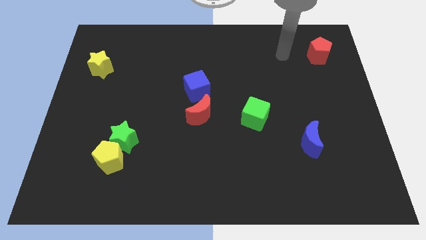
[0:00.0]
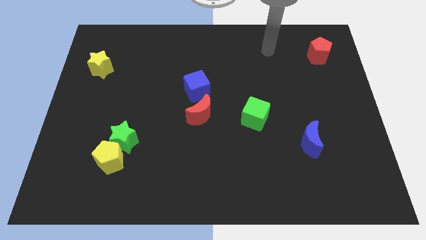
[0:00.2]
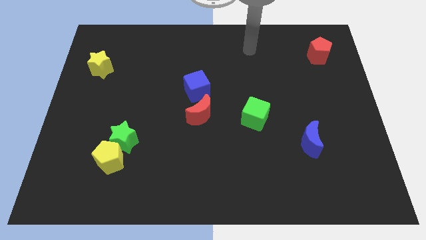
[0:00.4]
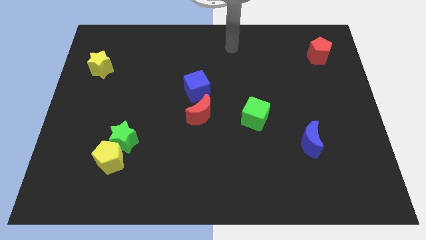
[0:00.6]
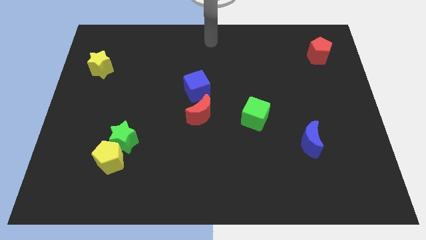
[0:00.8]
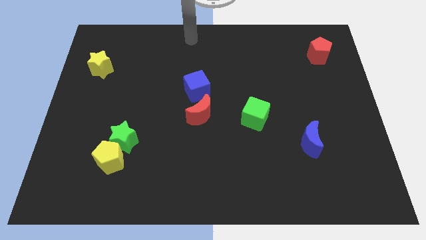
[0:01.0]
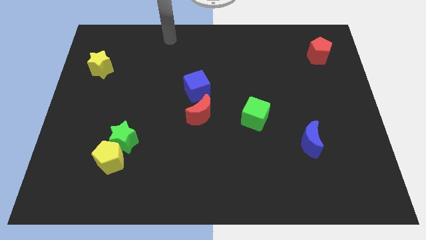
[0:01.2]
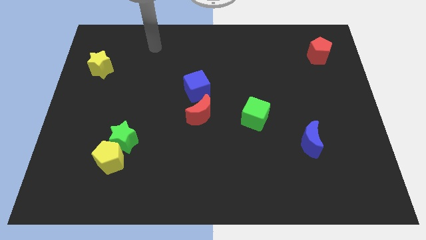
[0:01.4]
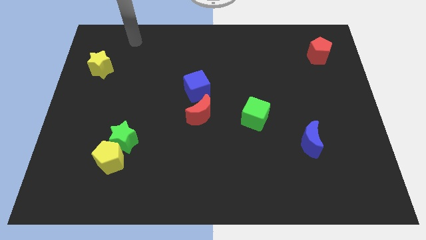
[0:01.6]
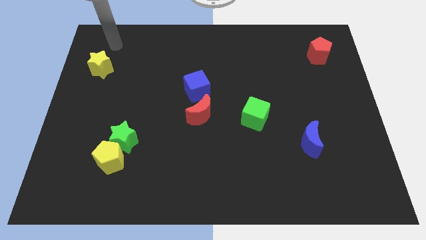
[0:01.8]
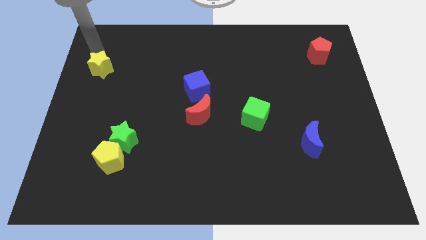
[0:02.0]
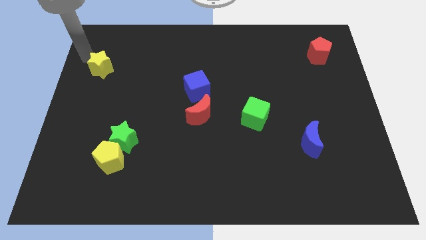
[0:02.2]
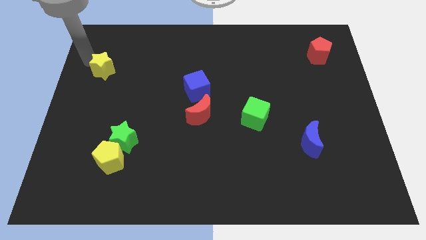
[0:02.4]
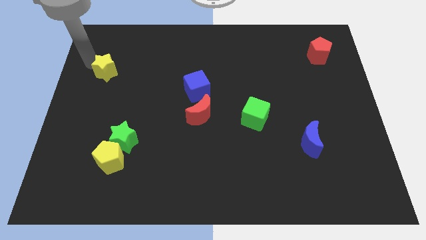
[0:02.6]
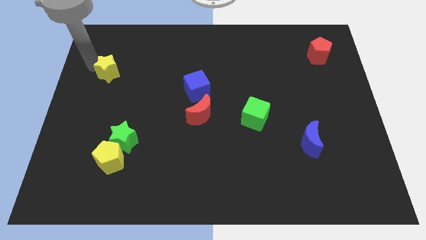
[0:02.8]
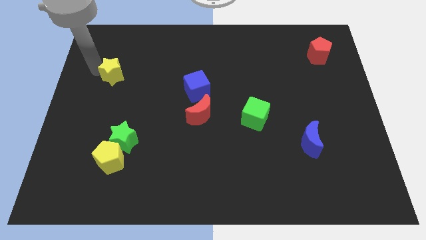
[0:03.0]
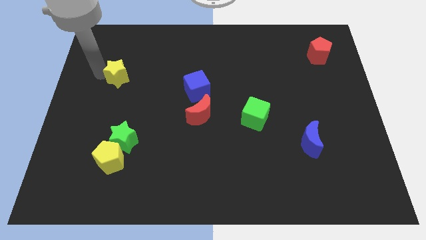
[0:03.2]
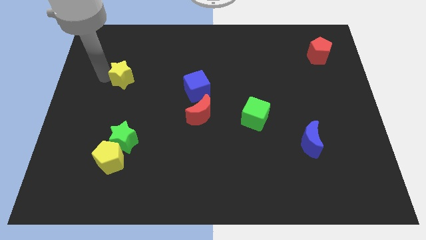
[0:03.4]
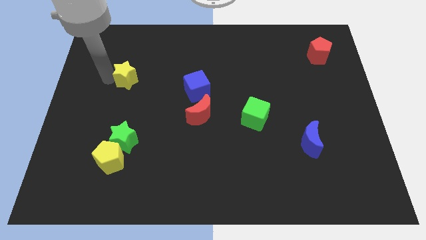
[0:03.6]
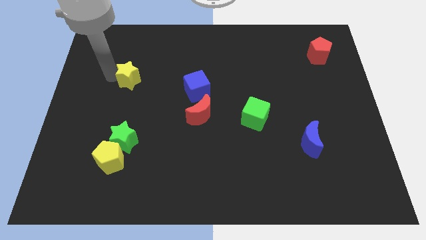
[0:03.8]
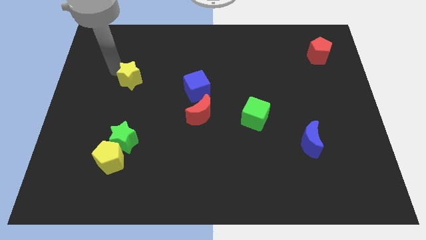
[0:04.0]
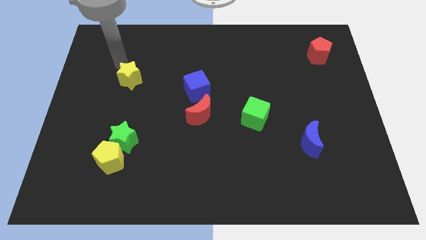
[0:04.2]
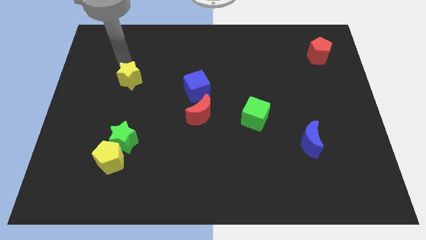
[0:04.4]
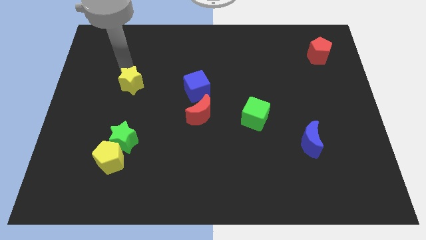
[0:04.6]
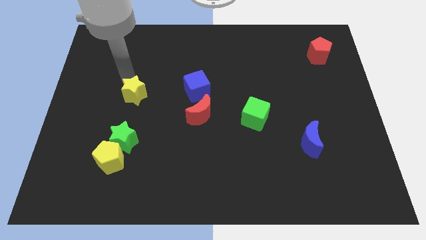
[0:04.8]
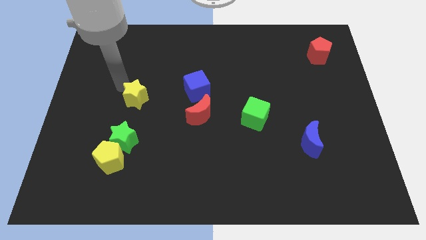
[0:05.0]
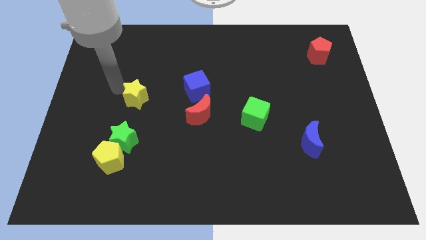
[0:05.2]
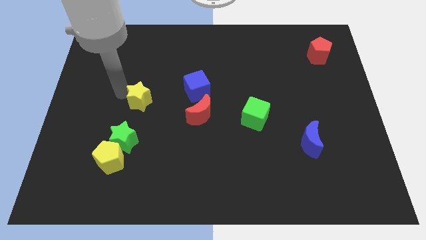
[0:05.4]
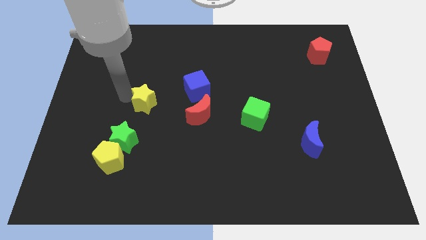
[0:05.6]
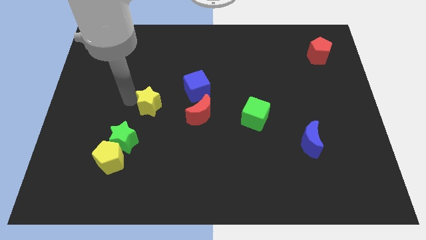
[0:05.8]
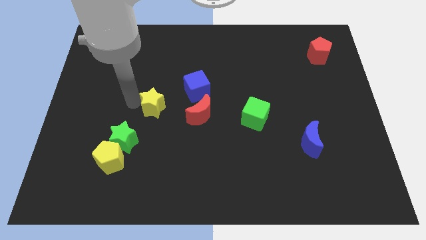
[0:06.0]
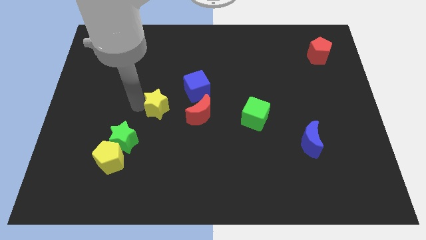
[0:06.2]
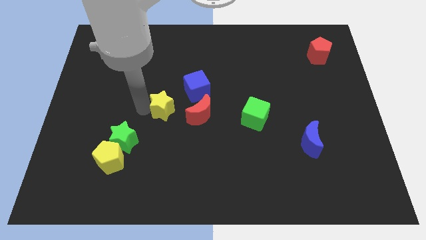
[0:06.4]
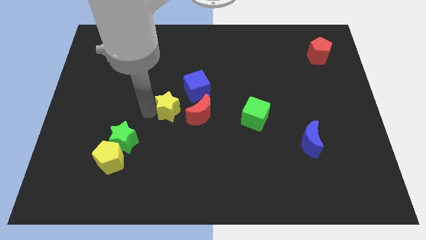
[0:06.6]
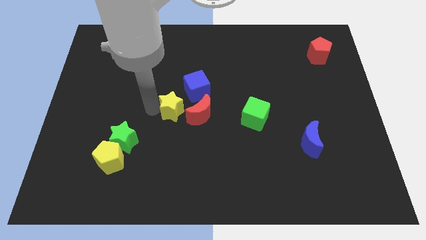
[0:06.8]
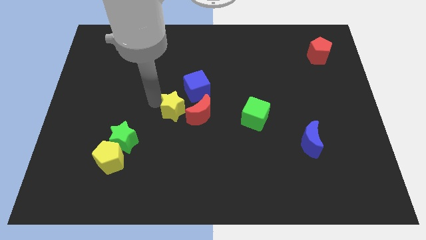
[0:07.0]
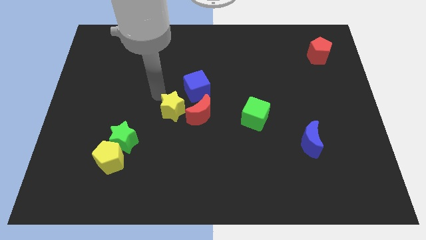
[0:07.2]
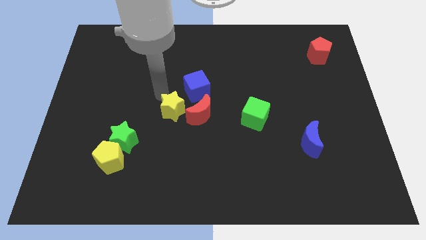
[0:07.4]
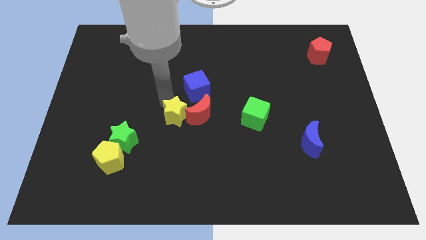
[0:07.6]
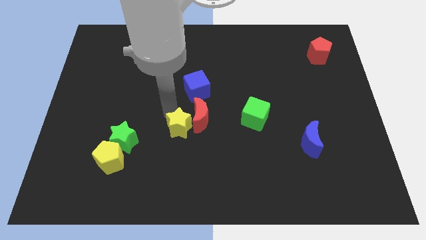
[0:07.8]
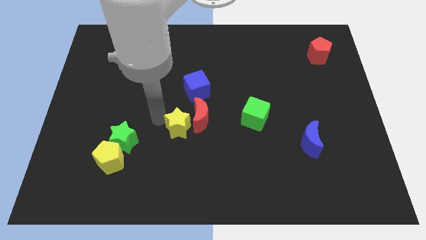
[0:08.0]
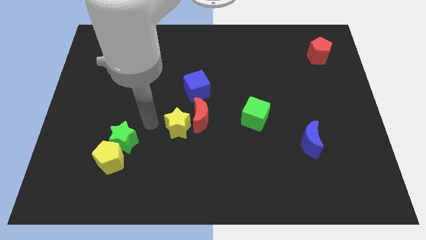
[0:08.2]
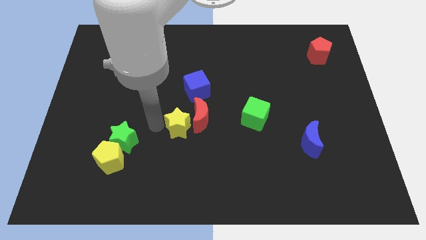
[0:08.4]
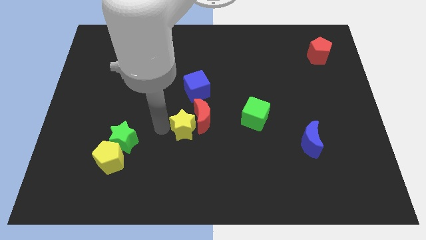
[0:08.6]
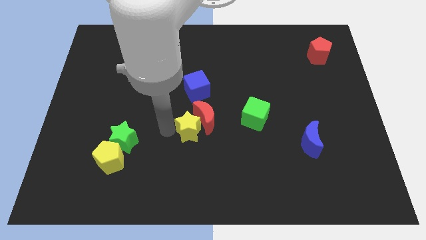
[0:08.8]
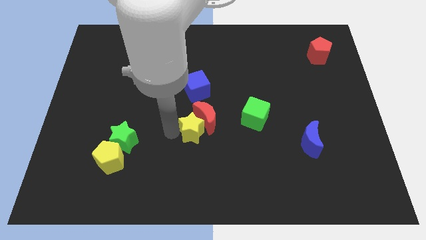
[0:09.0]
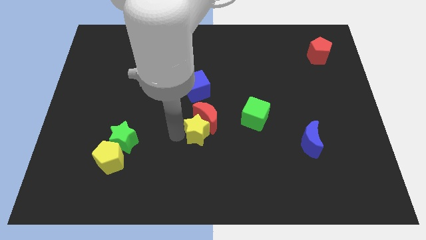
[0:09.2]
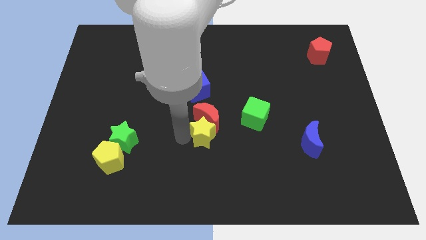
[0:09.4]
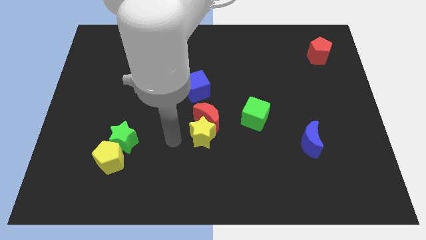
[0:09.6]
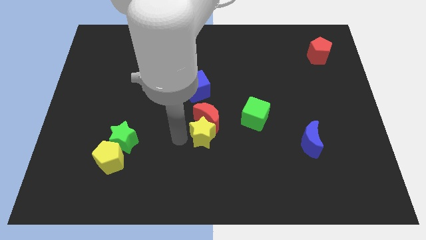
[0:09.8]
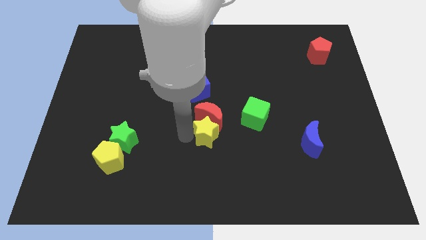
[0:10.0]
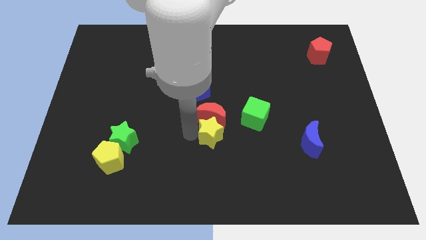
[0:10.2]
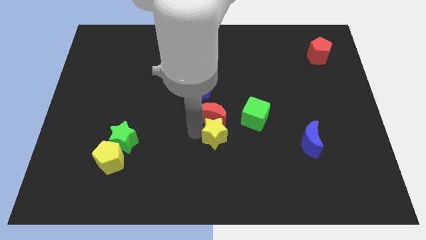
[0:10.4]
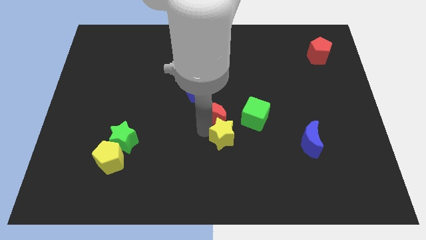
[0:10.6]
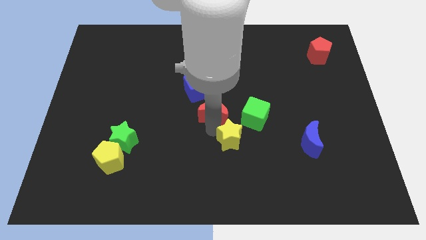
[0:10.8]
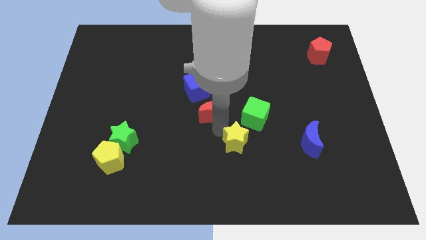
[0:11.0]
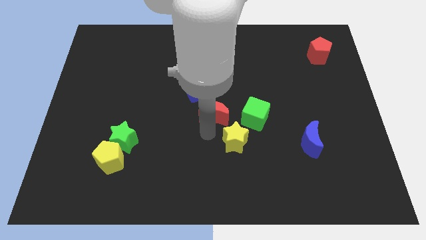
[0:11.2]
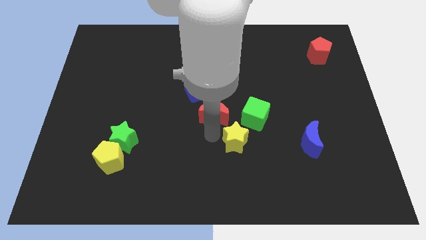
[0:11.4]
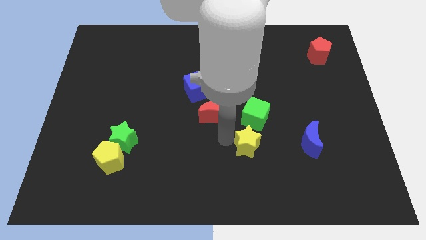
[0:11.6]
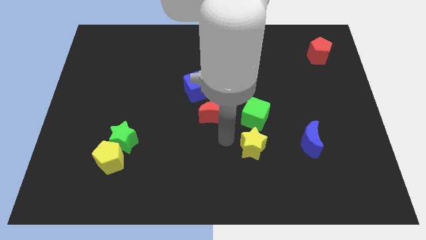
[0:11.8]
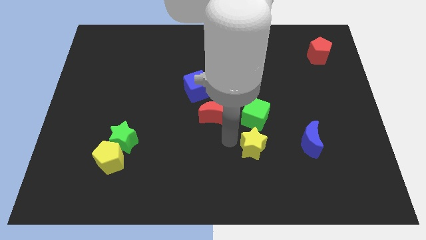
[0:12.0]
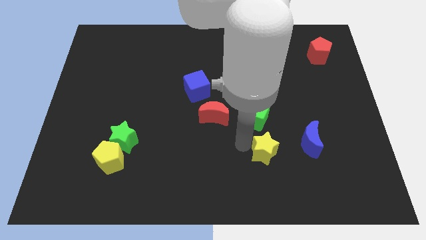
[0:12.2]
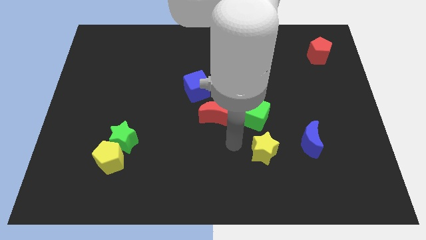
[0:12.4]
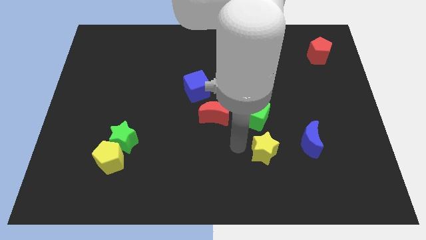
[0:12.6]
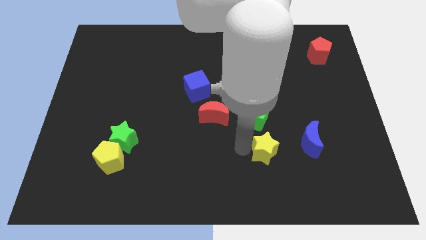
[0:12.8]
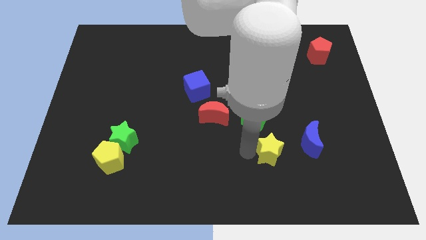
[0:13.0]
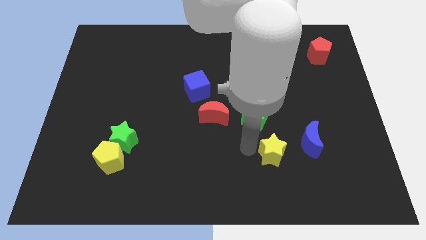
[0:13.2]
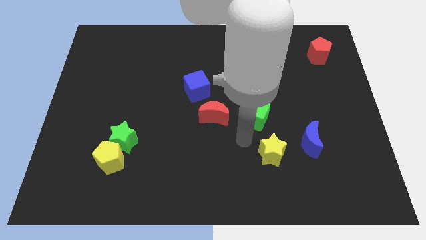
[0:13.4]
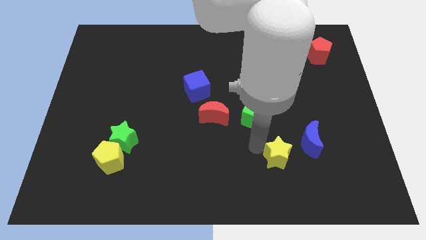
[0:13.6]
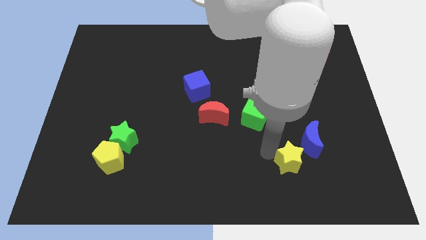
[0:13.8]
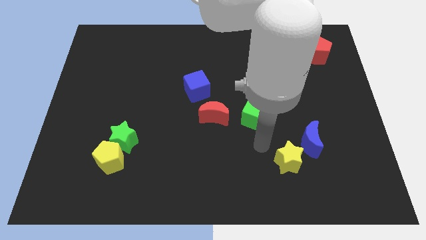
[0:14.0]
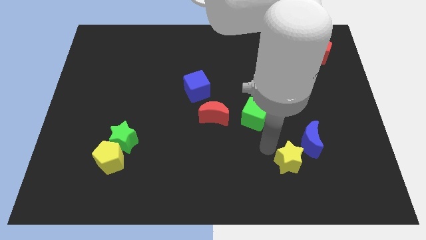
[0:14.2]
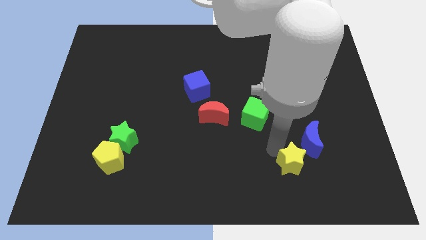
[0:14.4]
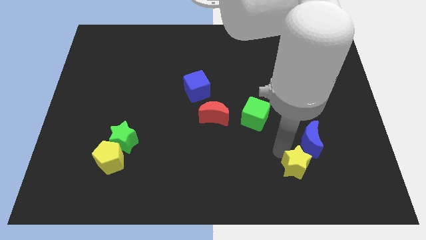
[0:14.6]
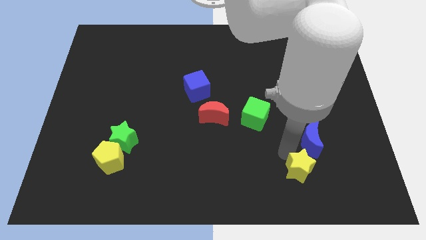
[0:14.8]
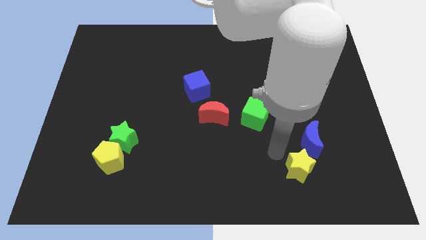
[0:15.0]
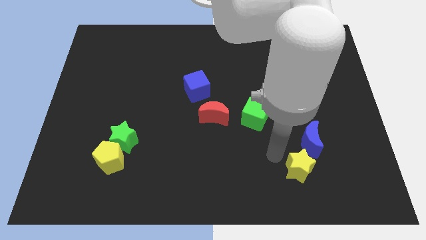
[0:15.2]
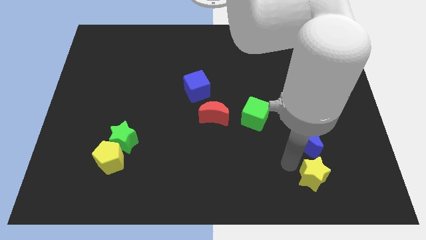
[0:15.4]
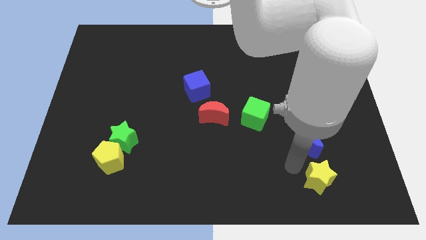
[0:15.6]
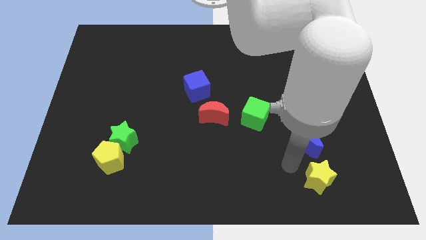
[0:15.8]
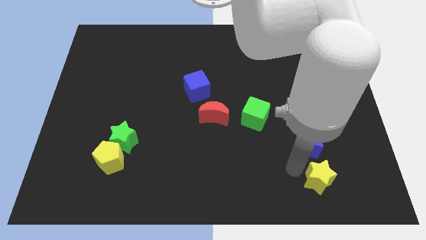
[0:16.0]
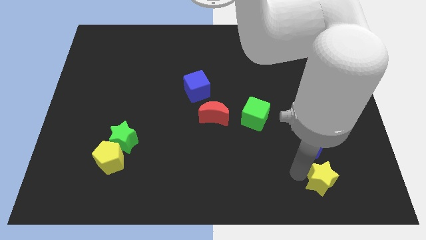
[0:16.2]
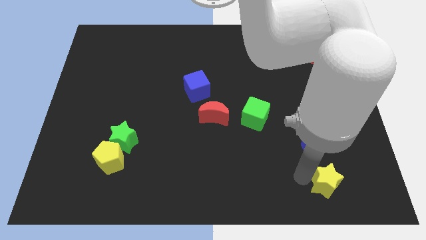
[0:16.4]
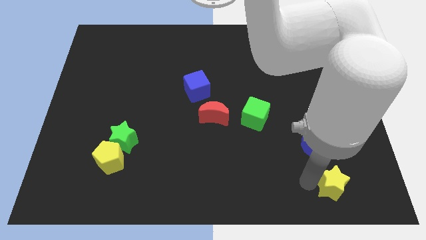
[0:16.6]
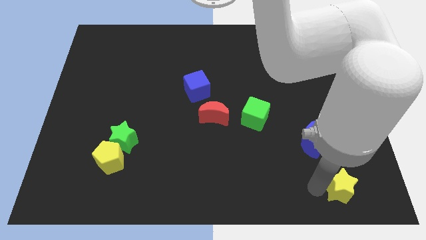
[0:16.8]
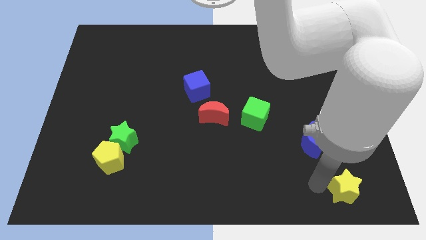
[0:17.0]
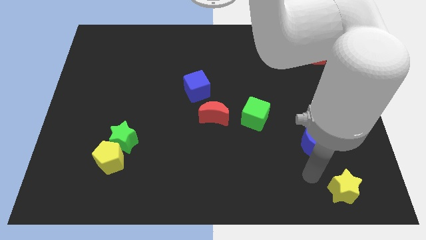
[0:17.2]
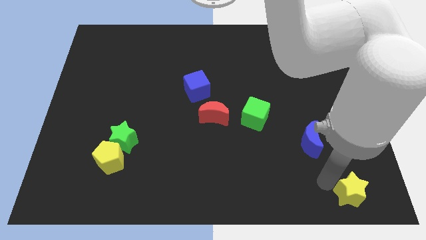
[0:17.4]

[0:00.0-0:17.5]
move the yellow star to the bottom right
